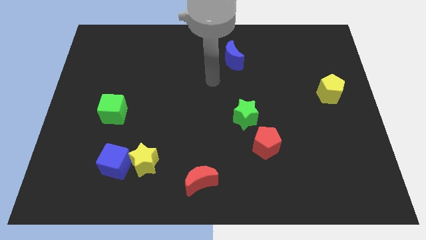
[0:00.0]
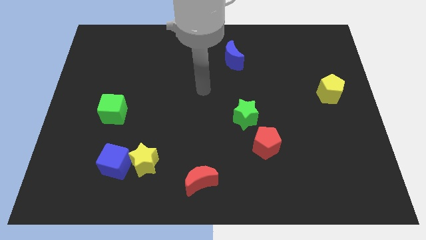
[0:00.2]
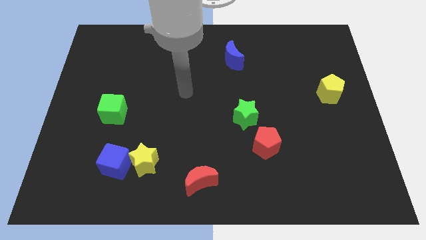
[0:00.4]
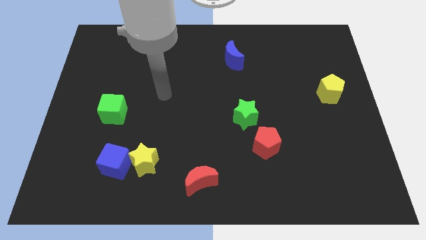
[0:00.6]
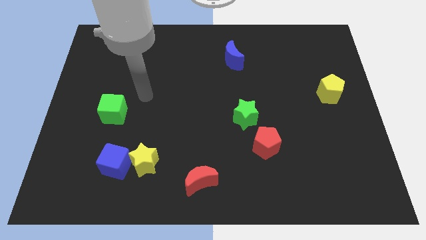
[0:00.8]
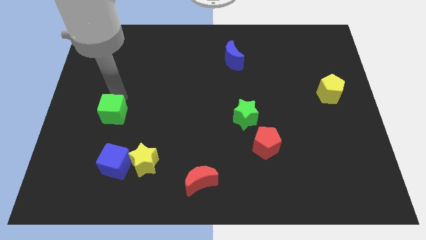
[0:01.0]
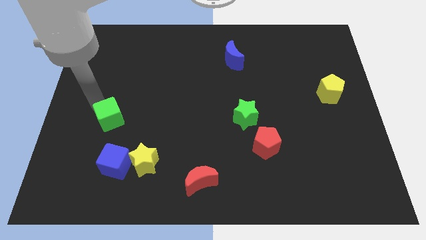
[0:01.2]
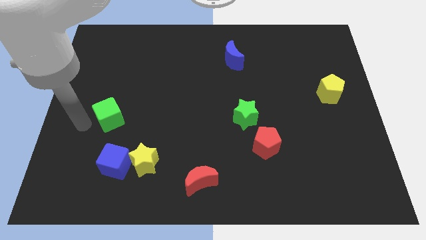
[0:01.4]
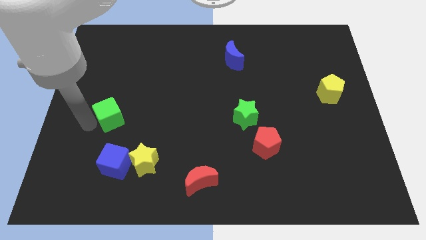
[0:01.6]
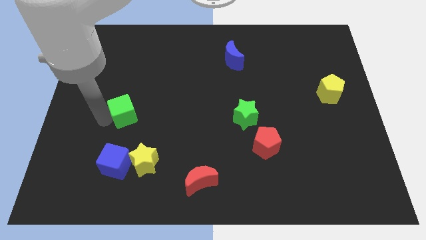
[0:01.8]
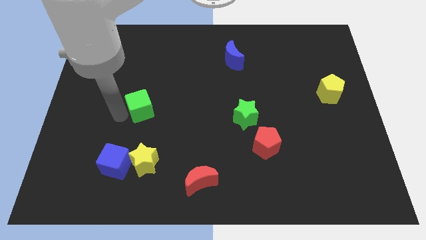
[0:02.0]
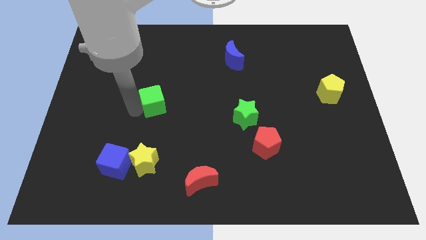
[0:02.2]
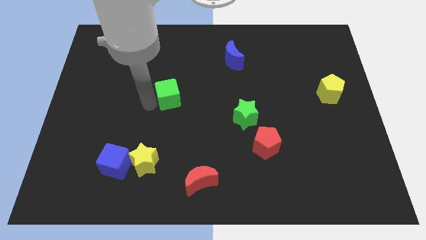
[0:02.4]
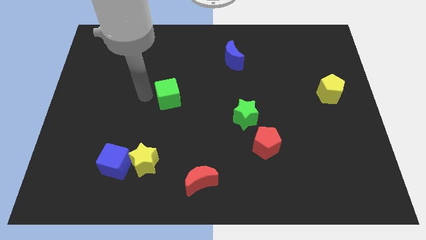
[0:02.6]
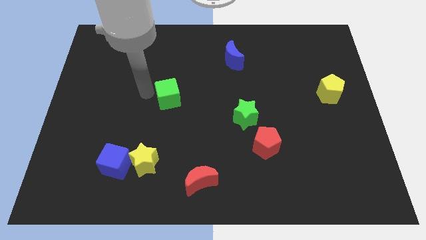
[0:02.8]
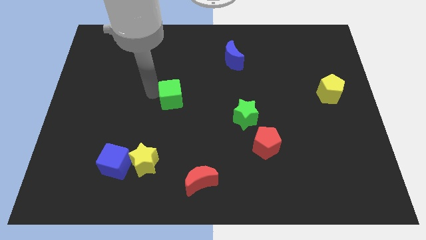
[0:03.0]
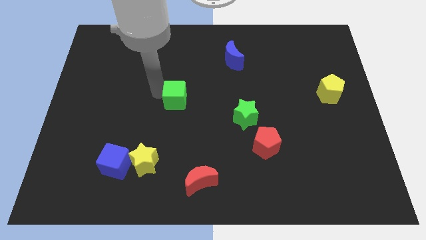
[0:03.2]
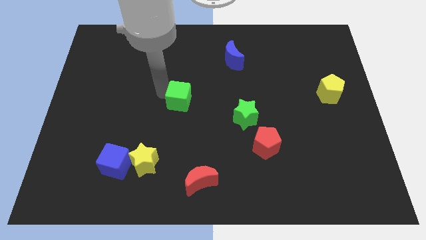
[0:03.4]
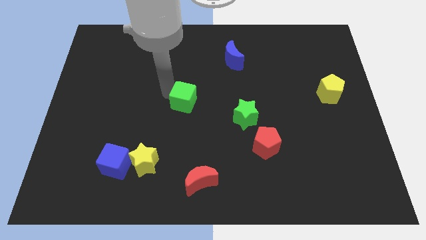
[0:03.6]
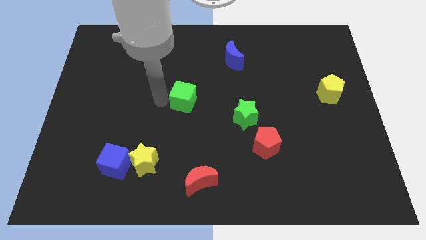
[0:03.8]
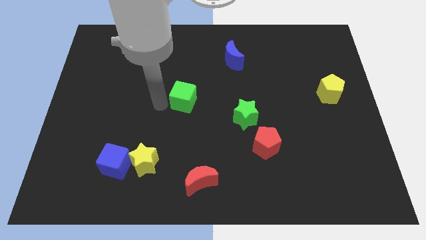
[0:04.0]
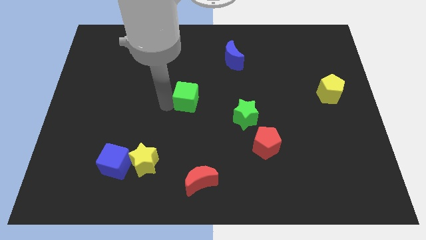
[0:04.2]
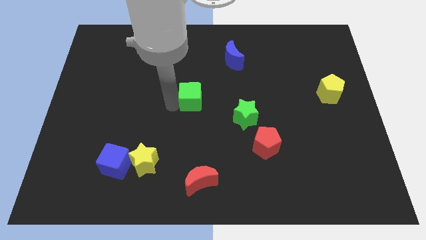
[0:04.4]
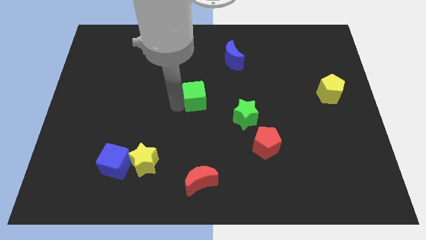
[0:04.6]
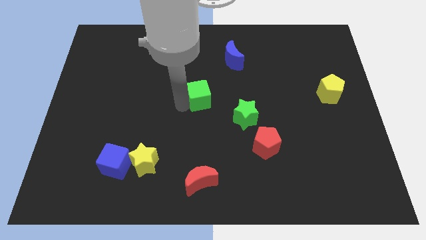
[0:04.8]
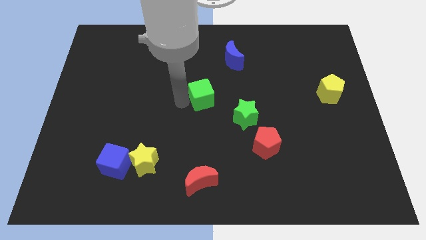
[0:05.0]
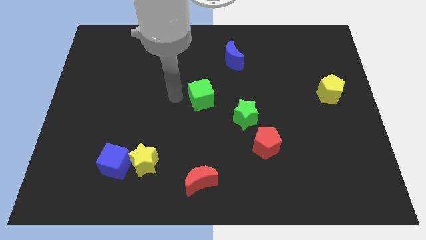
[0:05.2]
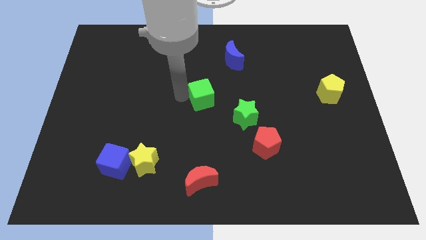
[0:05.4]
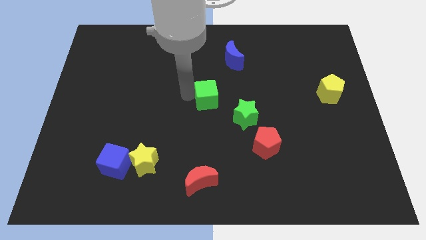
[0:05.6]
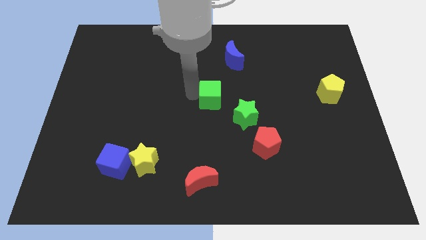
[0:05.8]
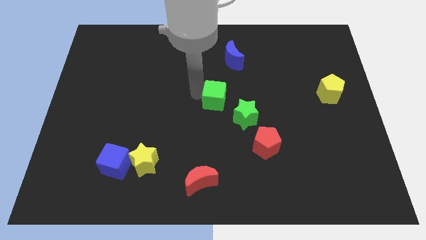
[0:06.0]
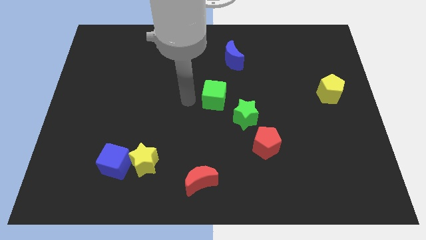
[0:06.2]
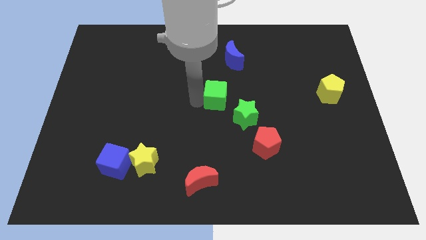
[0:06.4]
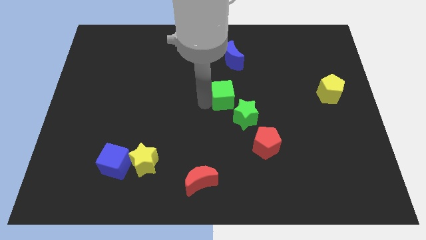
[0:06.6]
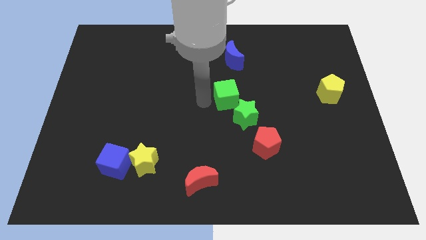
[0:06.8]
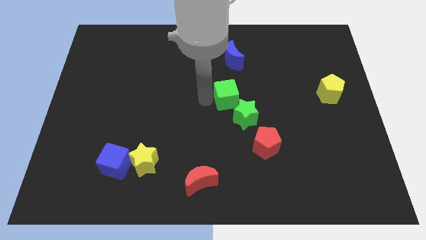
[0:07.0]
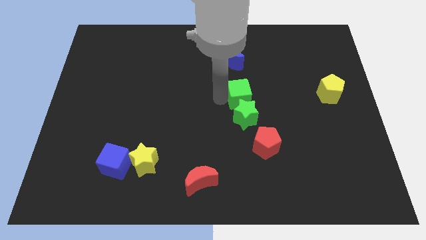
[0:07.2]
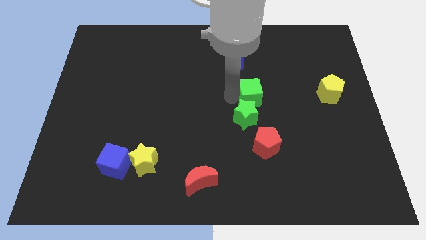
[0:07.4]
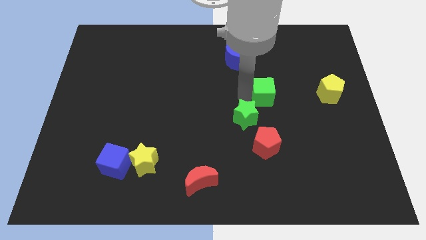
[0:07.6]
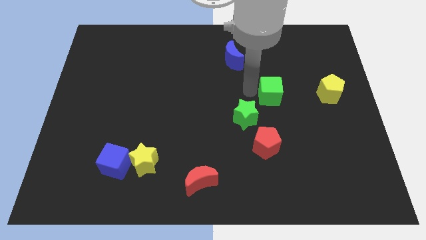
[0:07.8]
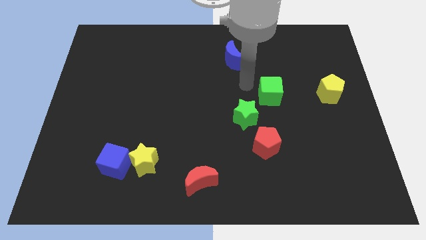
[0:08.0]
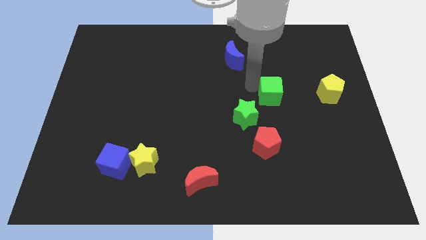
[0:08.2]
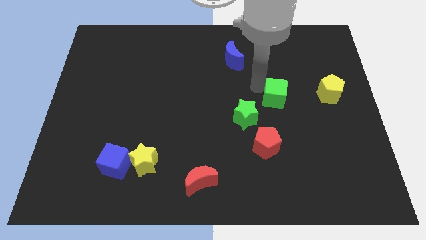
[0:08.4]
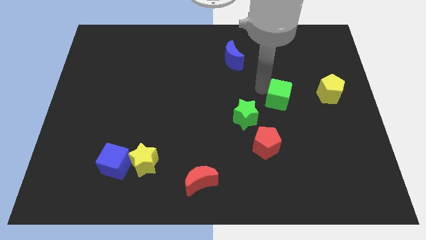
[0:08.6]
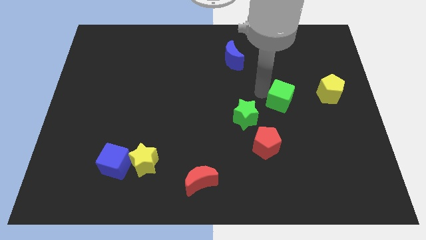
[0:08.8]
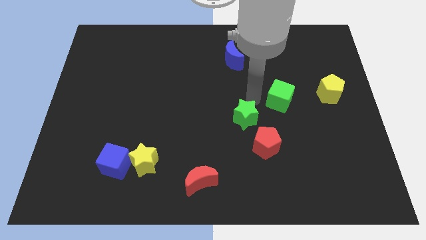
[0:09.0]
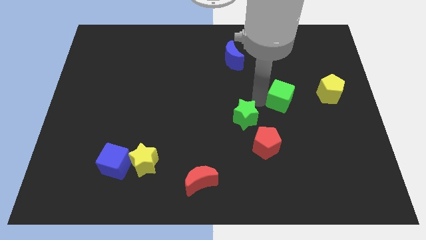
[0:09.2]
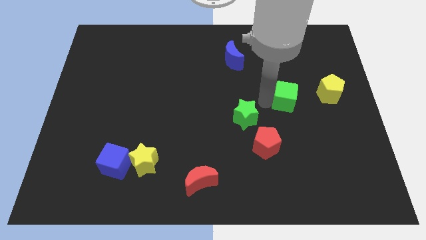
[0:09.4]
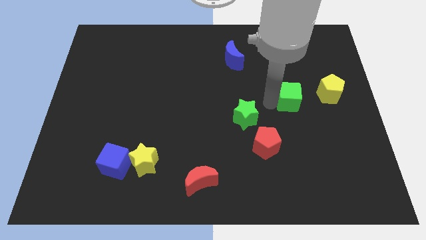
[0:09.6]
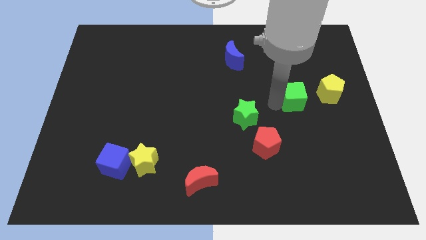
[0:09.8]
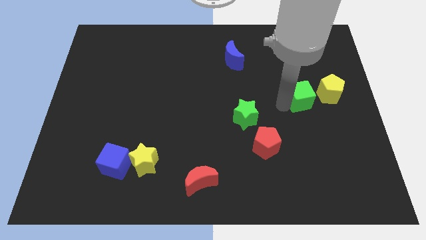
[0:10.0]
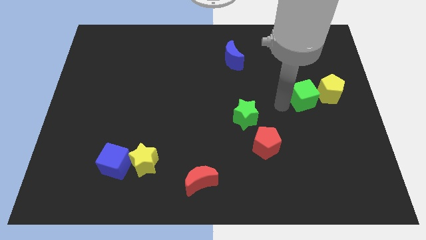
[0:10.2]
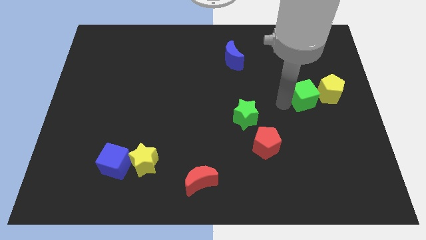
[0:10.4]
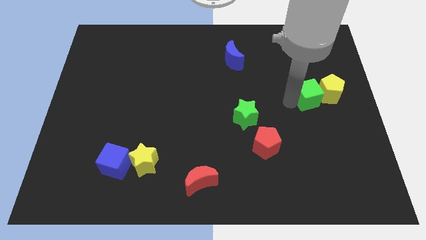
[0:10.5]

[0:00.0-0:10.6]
slide the green cube next to the yellow pentagon

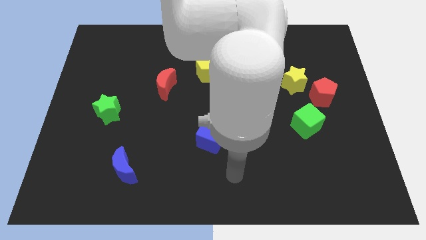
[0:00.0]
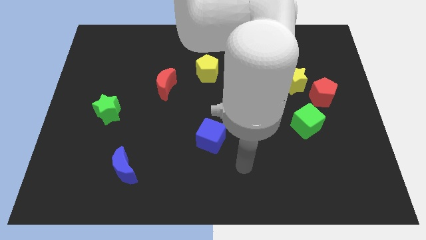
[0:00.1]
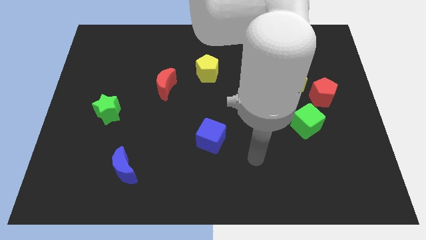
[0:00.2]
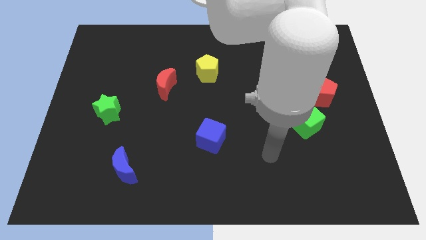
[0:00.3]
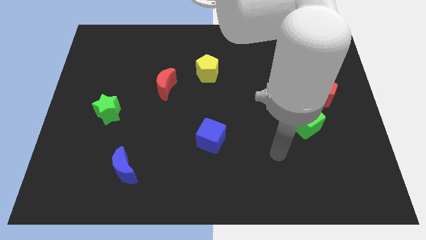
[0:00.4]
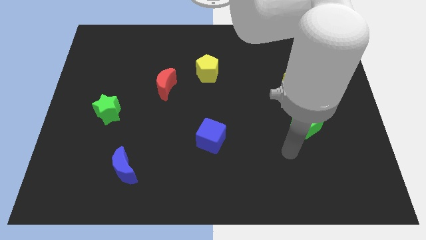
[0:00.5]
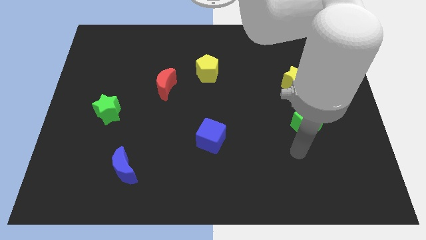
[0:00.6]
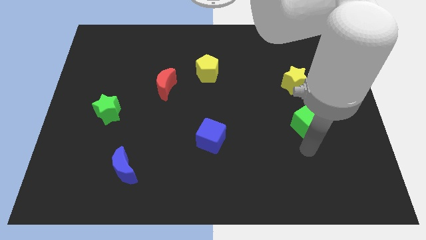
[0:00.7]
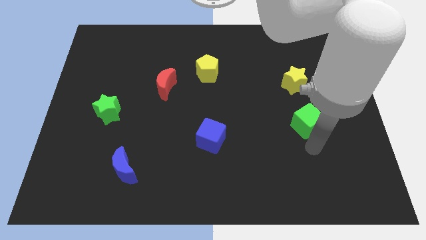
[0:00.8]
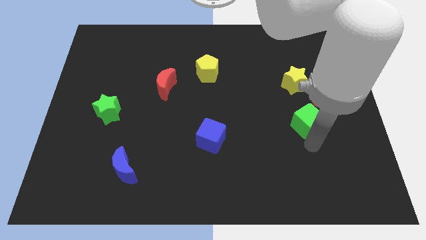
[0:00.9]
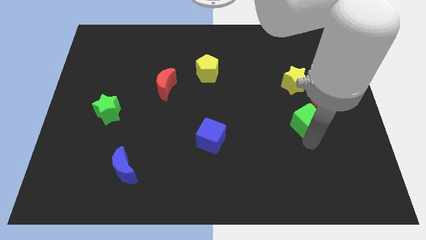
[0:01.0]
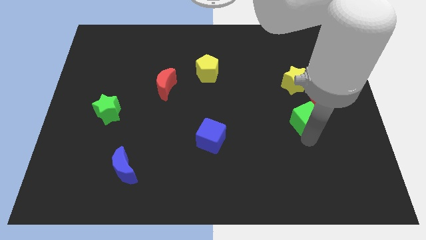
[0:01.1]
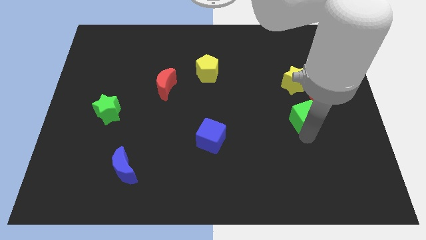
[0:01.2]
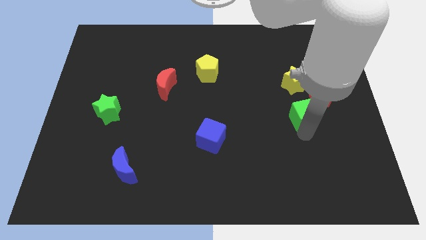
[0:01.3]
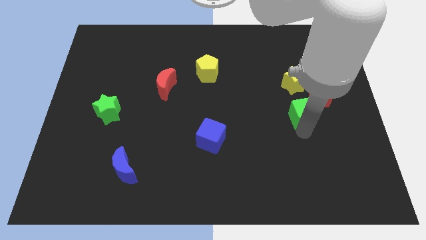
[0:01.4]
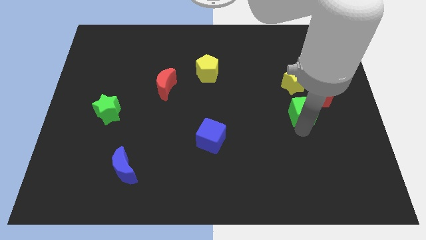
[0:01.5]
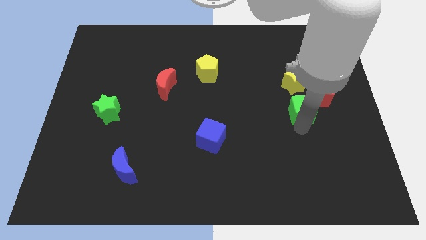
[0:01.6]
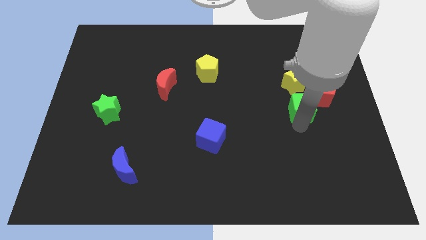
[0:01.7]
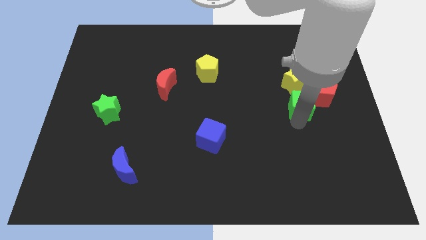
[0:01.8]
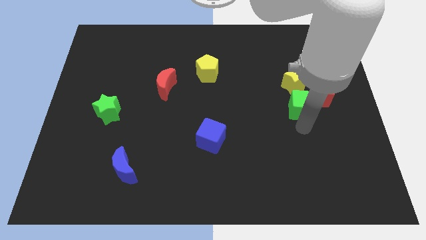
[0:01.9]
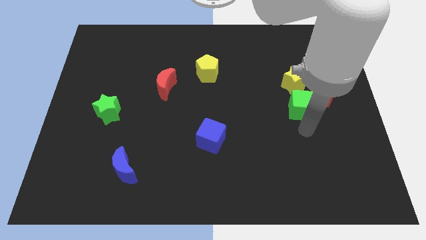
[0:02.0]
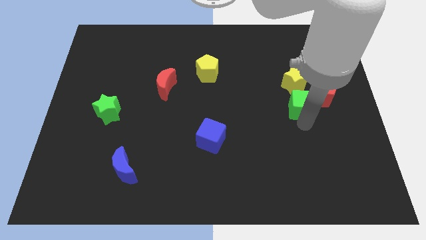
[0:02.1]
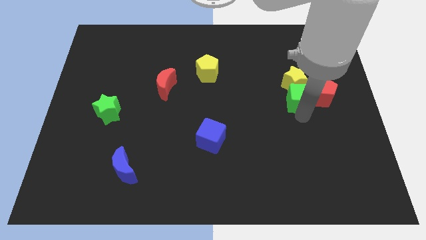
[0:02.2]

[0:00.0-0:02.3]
move the green cube towards the yellow star
